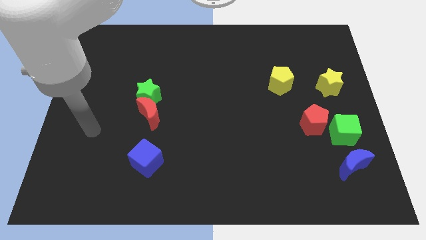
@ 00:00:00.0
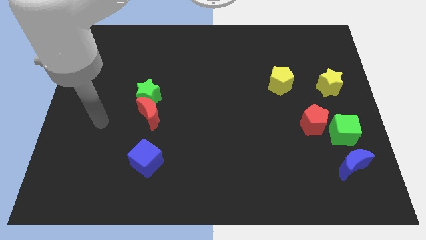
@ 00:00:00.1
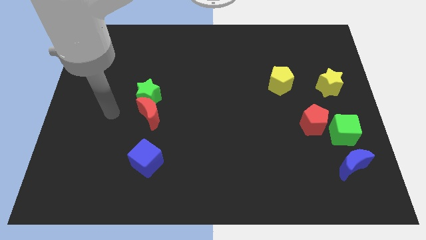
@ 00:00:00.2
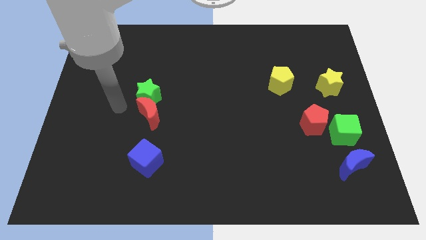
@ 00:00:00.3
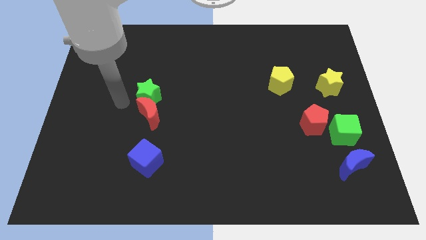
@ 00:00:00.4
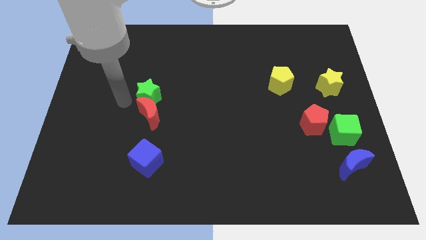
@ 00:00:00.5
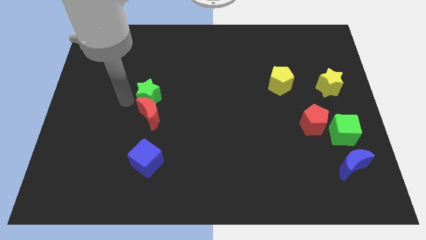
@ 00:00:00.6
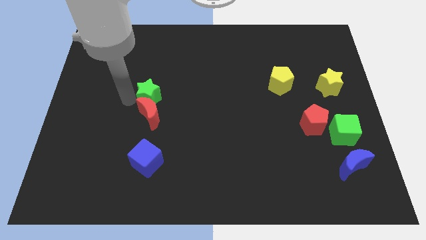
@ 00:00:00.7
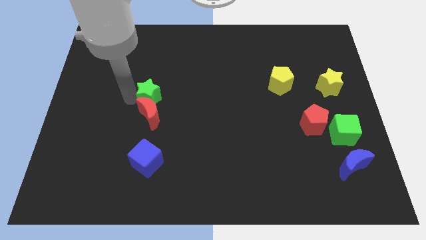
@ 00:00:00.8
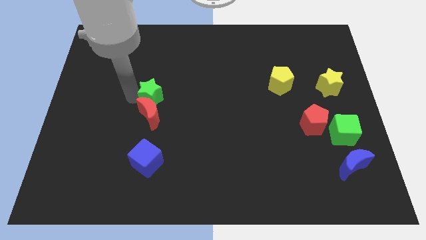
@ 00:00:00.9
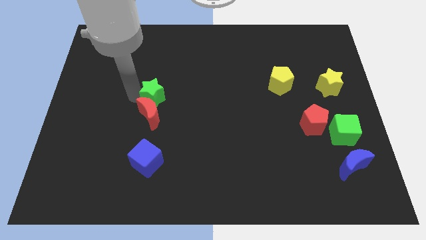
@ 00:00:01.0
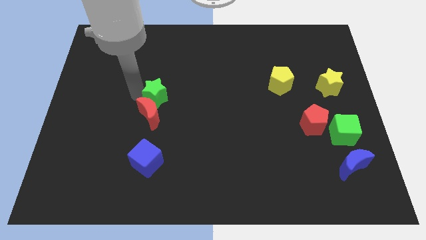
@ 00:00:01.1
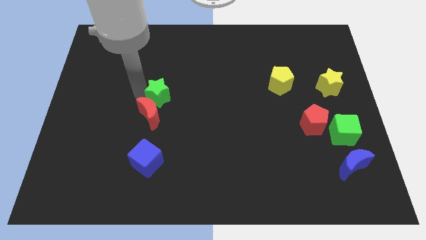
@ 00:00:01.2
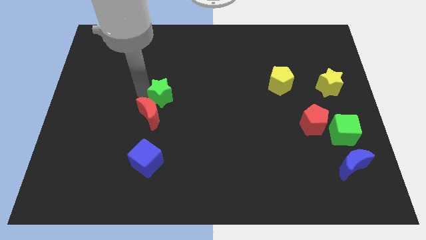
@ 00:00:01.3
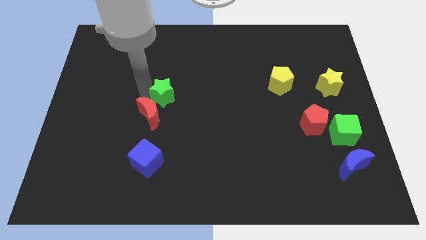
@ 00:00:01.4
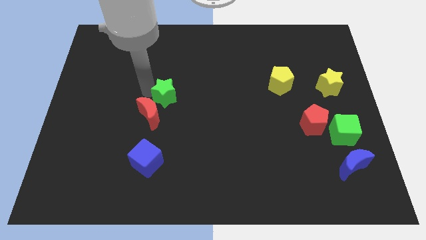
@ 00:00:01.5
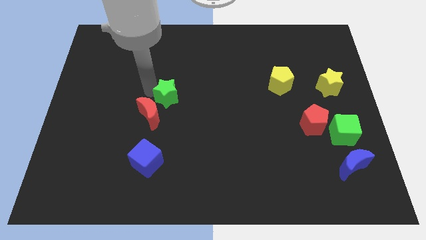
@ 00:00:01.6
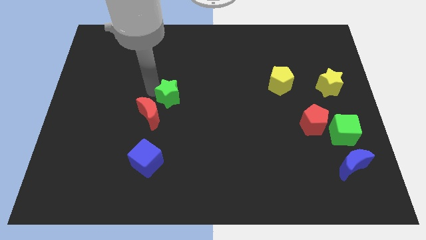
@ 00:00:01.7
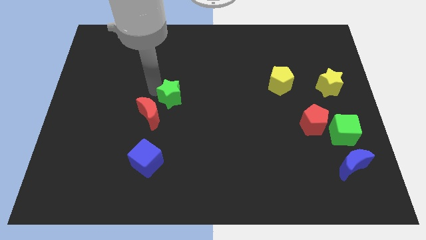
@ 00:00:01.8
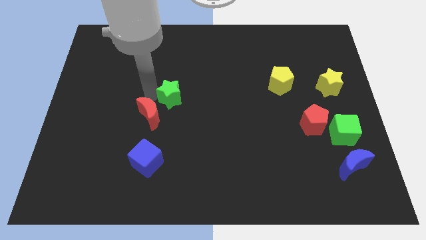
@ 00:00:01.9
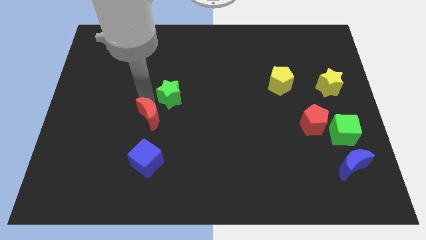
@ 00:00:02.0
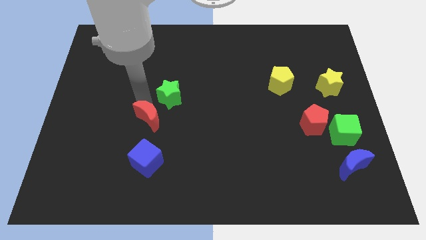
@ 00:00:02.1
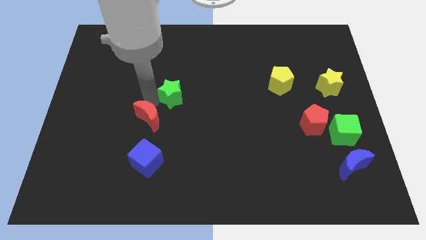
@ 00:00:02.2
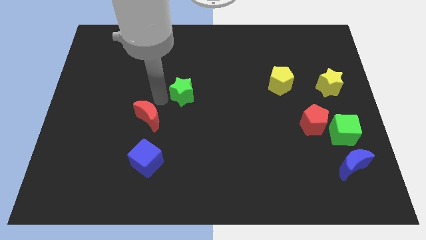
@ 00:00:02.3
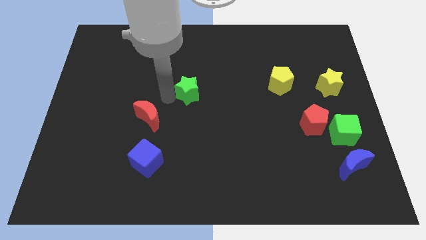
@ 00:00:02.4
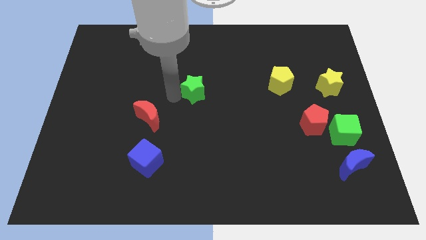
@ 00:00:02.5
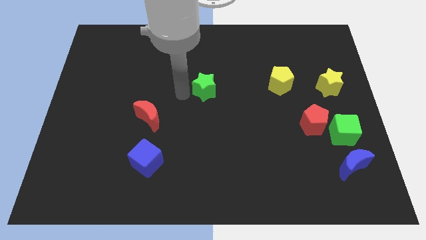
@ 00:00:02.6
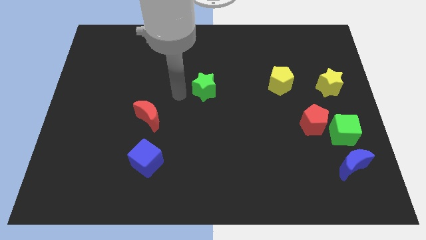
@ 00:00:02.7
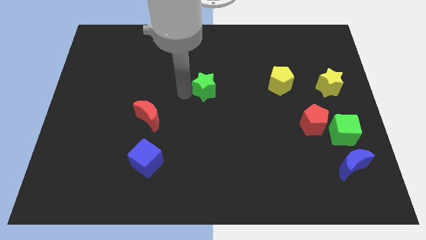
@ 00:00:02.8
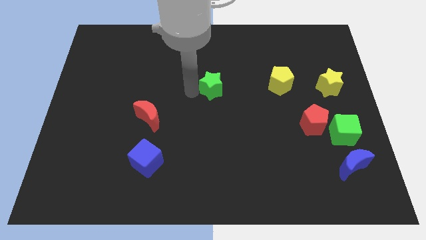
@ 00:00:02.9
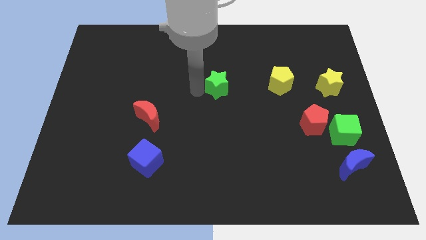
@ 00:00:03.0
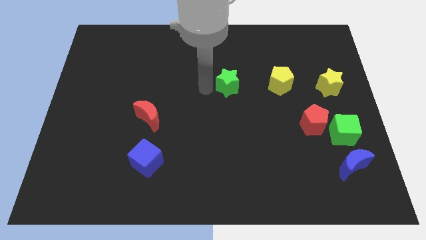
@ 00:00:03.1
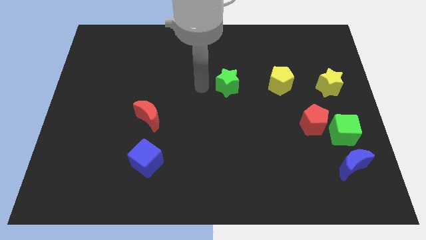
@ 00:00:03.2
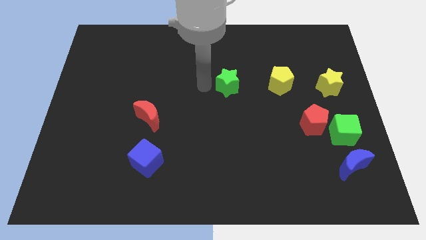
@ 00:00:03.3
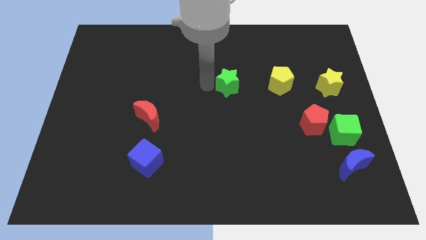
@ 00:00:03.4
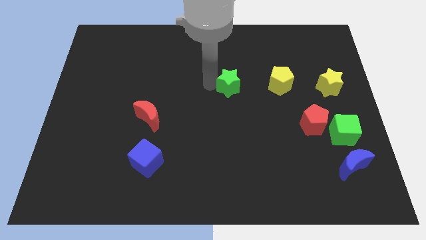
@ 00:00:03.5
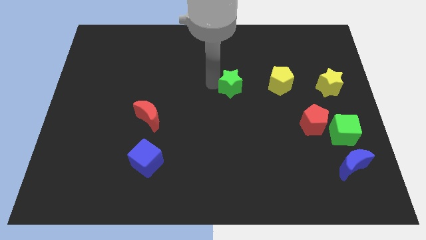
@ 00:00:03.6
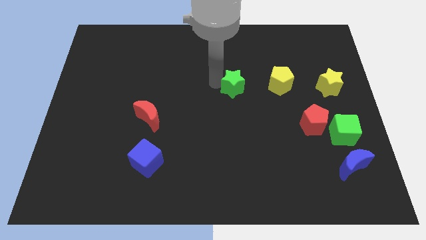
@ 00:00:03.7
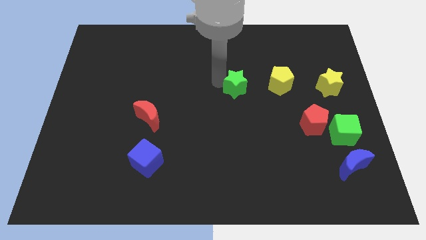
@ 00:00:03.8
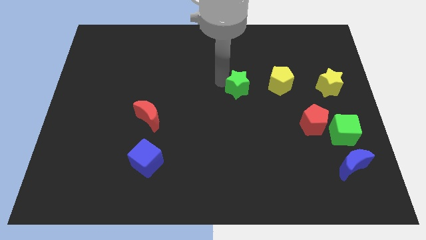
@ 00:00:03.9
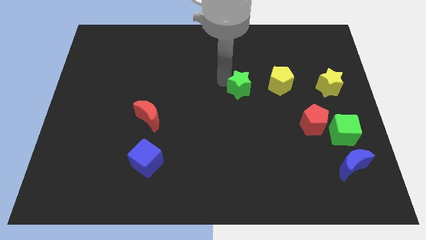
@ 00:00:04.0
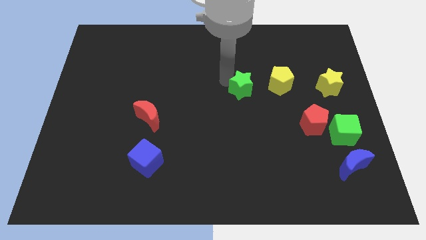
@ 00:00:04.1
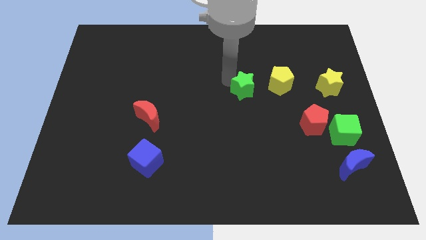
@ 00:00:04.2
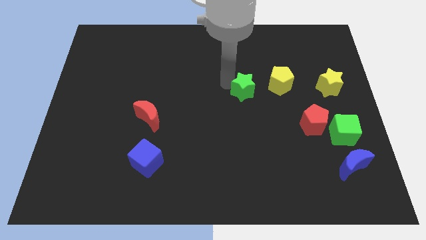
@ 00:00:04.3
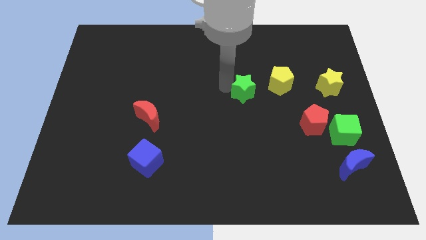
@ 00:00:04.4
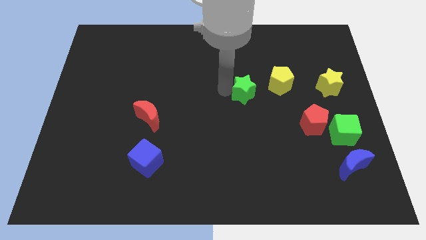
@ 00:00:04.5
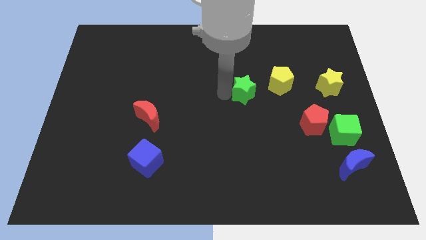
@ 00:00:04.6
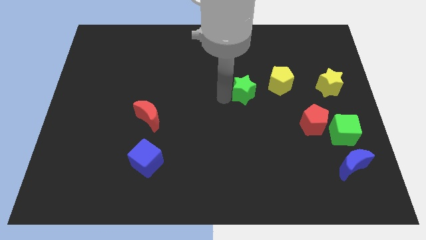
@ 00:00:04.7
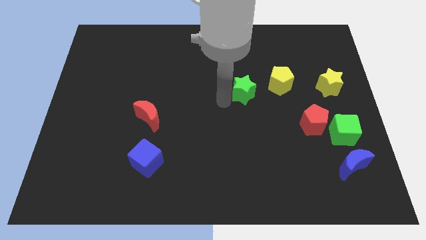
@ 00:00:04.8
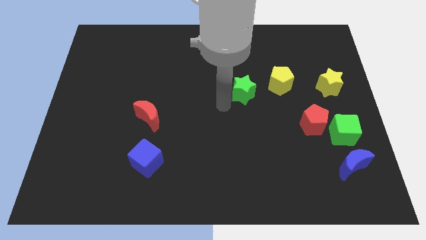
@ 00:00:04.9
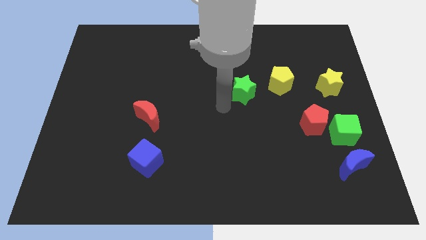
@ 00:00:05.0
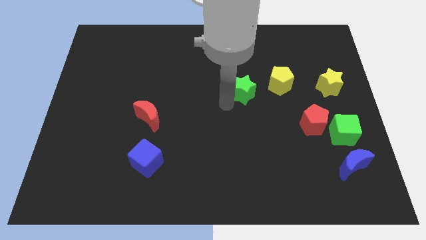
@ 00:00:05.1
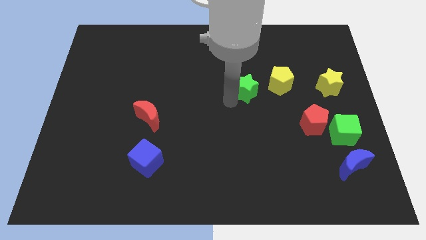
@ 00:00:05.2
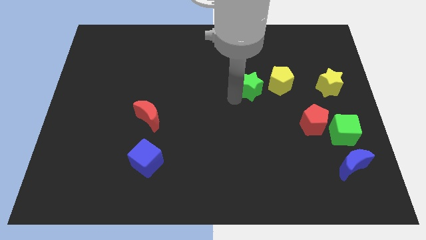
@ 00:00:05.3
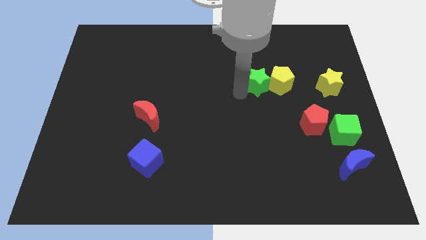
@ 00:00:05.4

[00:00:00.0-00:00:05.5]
move the green star towards the yellow pentagon
